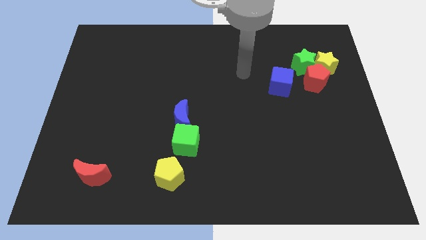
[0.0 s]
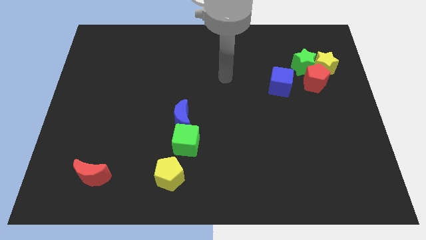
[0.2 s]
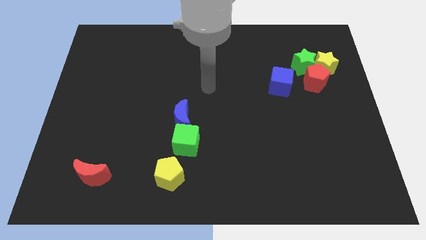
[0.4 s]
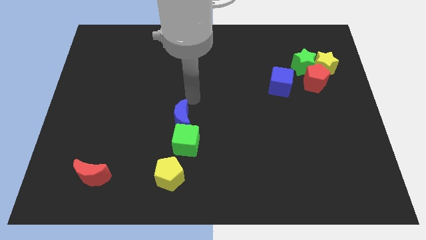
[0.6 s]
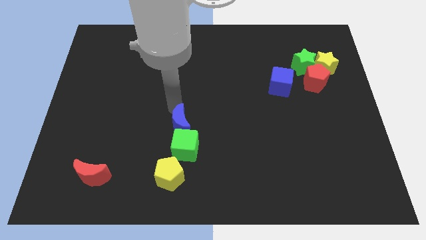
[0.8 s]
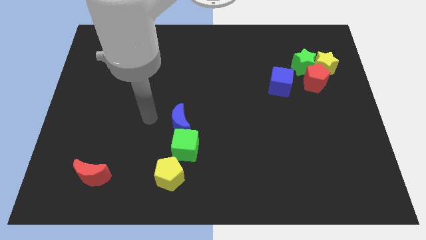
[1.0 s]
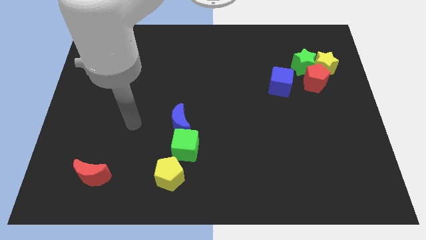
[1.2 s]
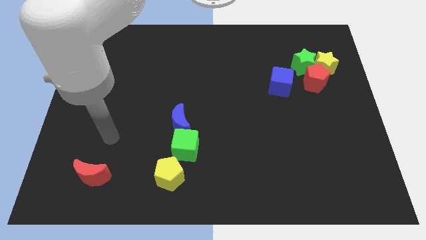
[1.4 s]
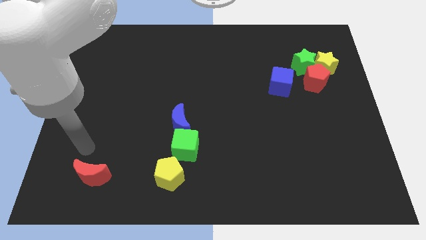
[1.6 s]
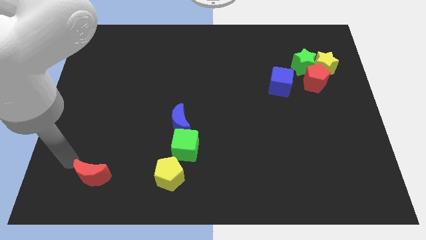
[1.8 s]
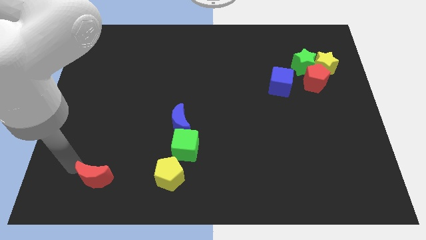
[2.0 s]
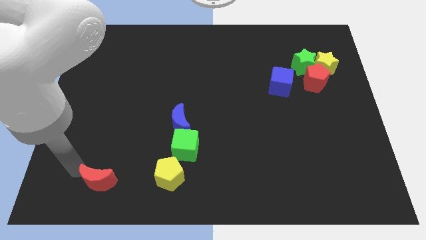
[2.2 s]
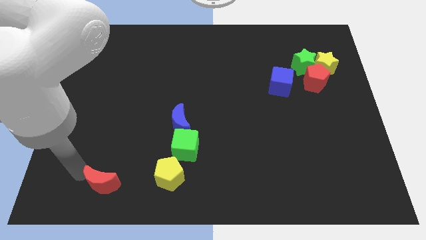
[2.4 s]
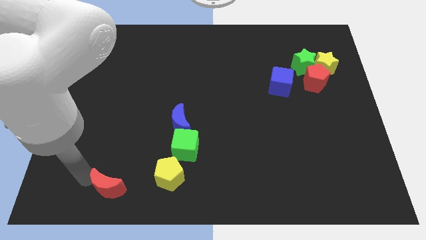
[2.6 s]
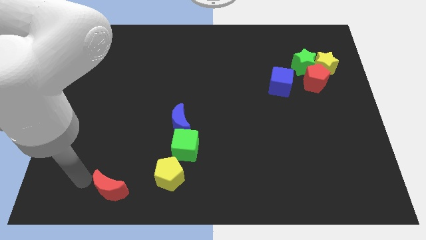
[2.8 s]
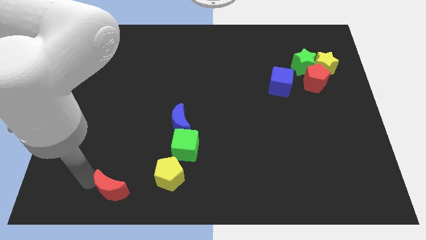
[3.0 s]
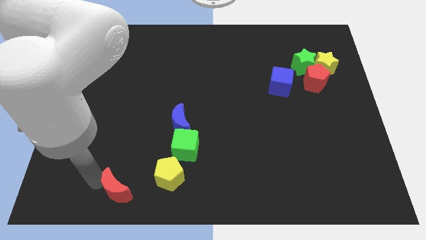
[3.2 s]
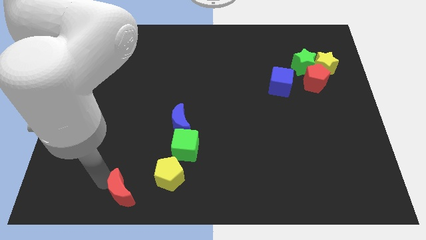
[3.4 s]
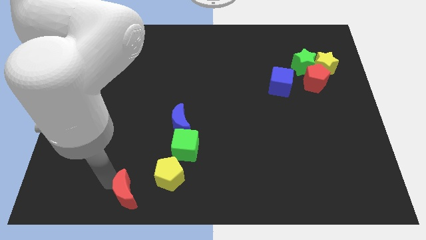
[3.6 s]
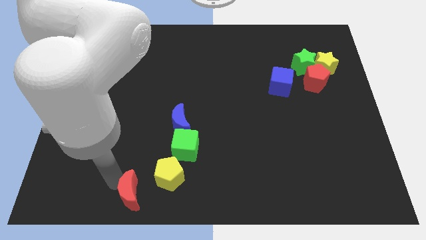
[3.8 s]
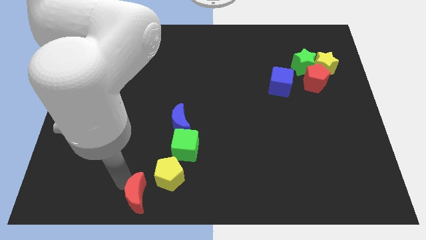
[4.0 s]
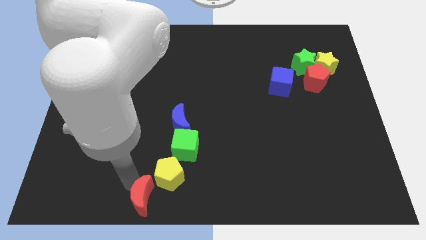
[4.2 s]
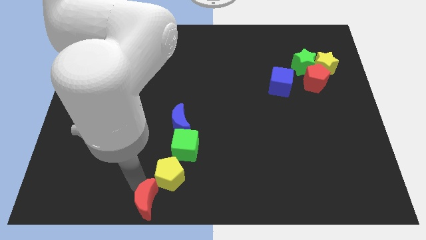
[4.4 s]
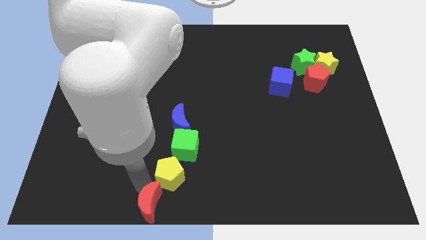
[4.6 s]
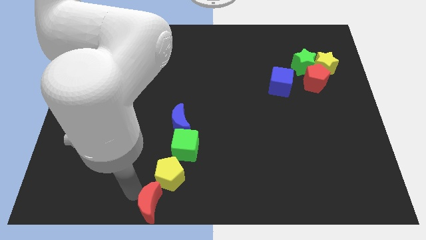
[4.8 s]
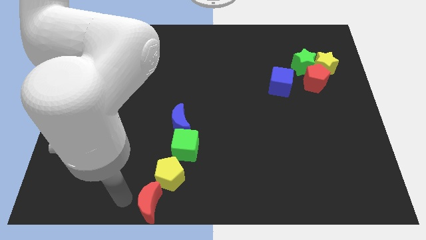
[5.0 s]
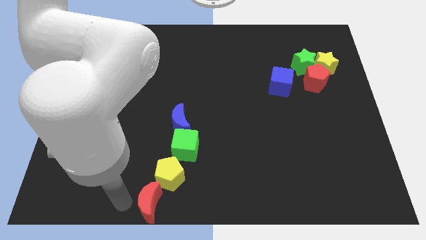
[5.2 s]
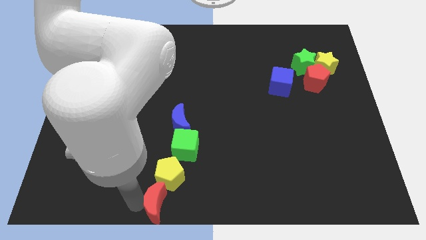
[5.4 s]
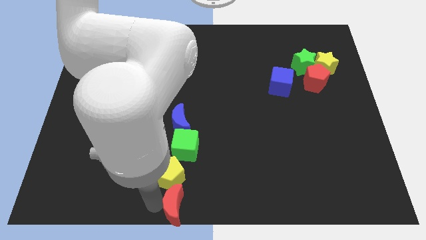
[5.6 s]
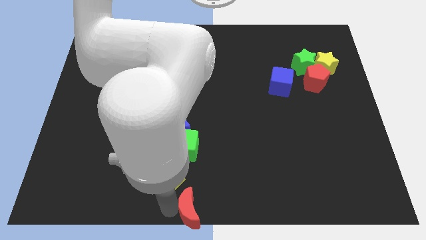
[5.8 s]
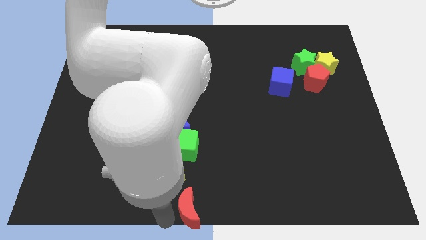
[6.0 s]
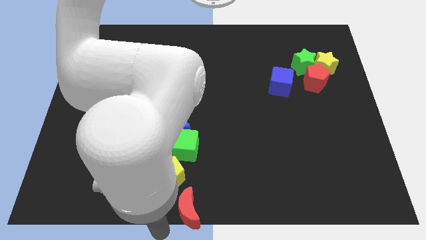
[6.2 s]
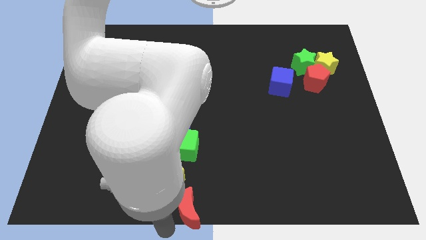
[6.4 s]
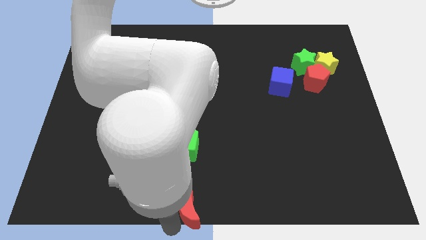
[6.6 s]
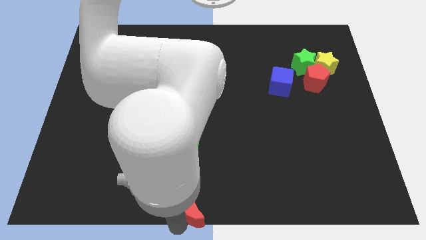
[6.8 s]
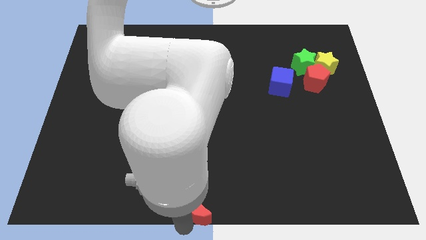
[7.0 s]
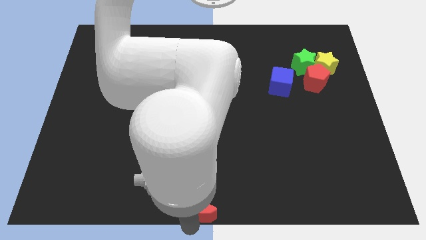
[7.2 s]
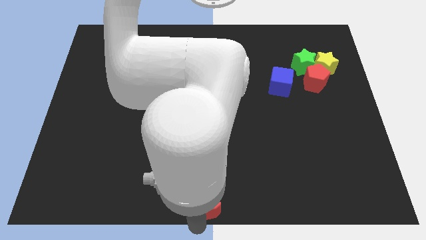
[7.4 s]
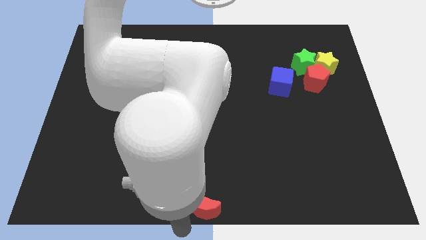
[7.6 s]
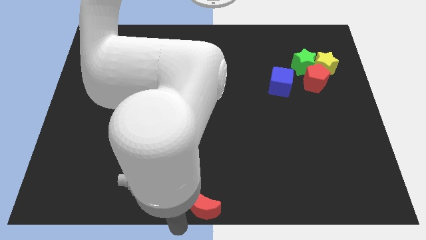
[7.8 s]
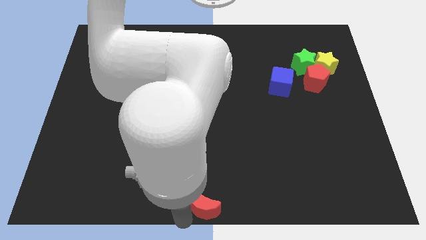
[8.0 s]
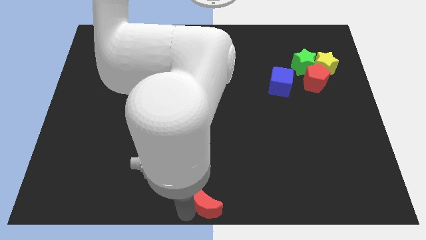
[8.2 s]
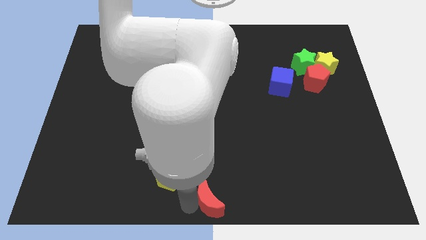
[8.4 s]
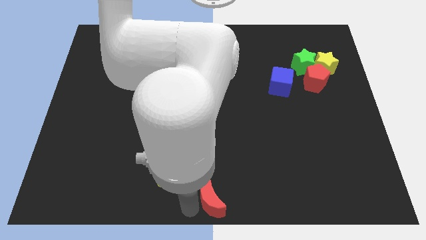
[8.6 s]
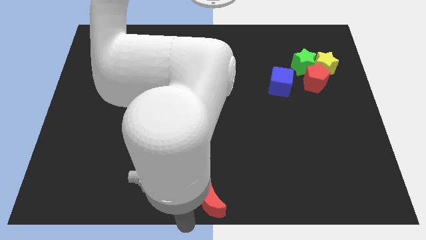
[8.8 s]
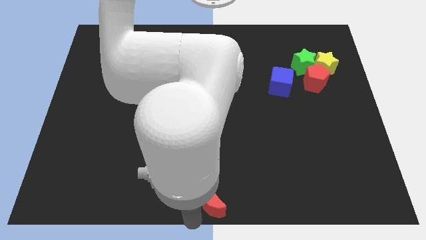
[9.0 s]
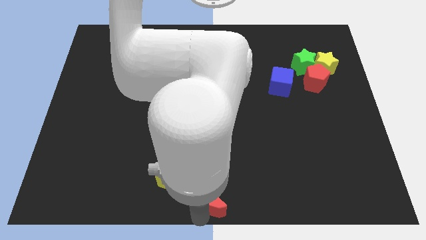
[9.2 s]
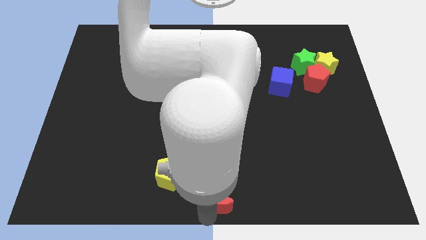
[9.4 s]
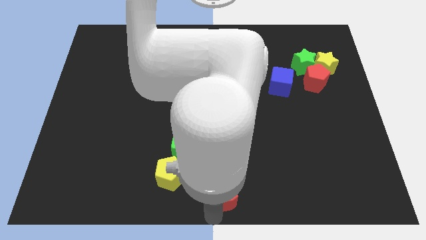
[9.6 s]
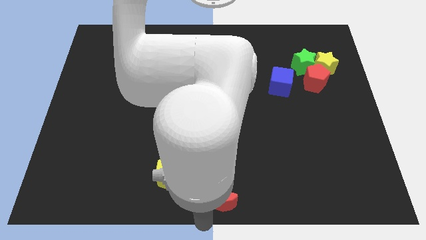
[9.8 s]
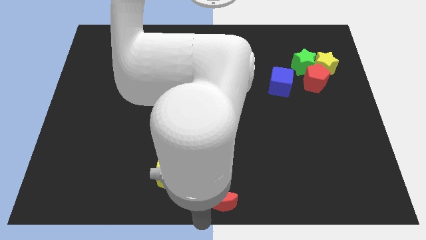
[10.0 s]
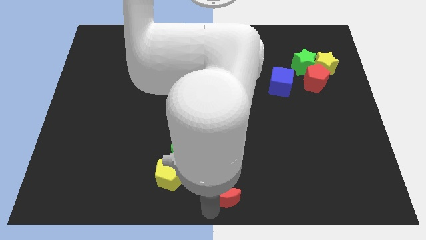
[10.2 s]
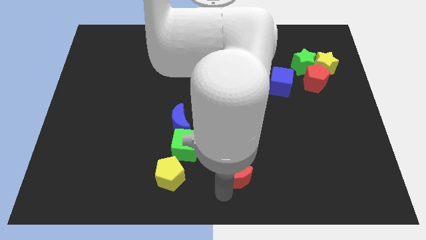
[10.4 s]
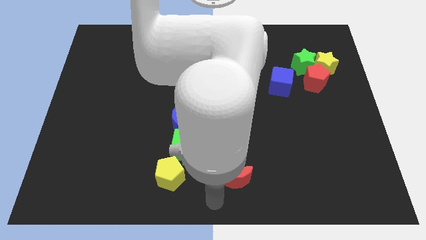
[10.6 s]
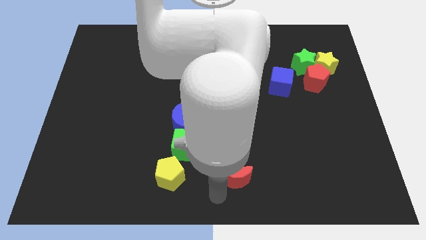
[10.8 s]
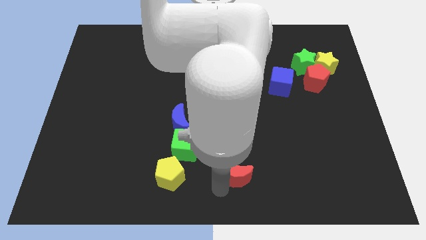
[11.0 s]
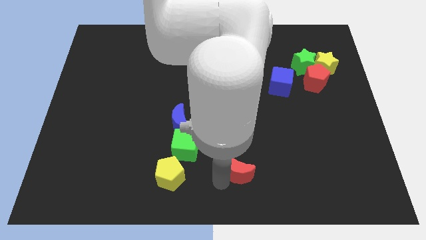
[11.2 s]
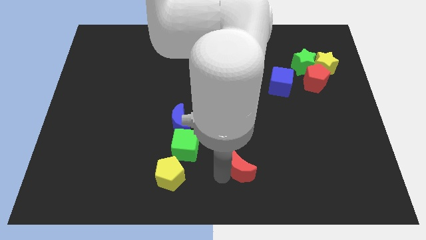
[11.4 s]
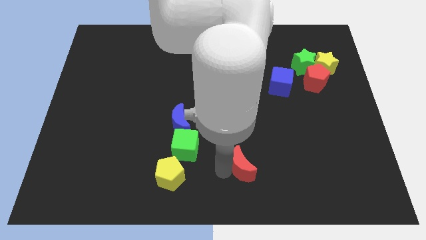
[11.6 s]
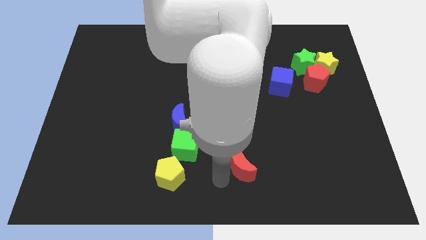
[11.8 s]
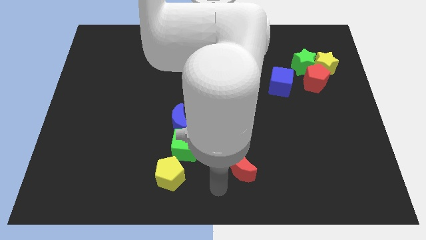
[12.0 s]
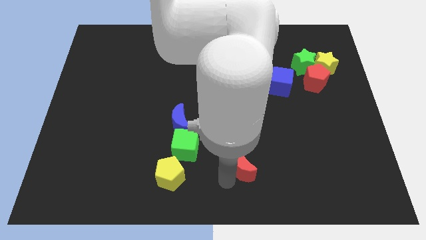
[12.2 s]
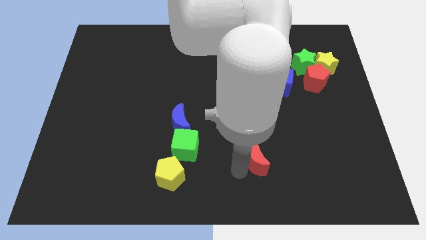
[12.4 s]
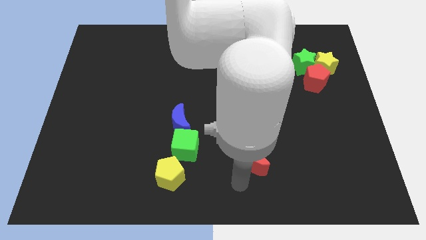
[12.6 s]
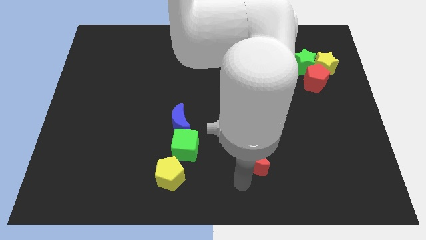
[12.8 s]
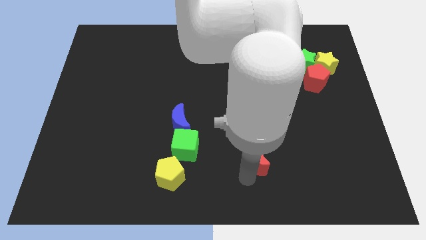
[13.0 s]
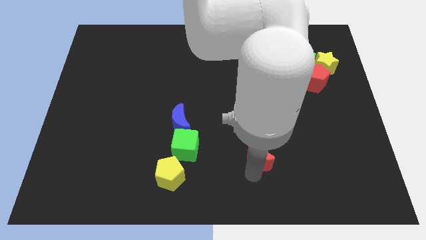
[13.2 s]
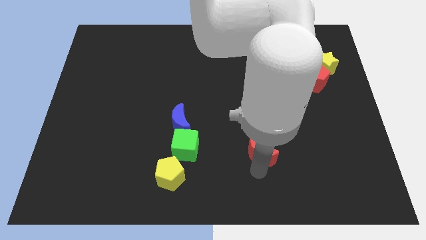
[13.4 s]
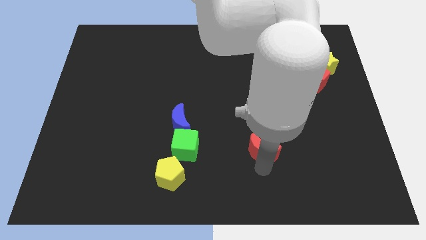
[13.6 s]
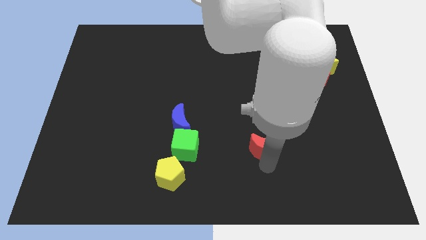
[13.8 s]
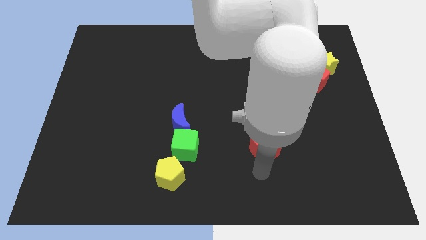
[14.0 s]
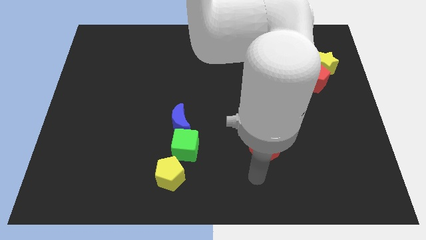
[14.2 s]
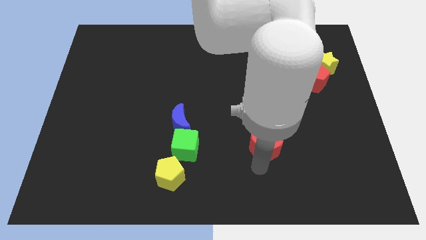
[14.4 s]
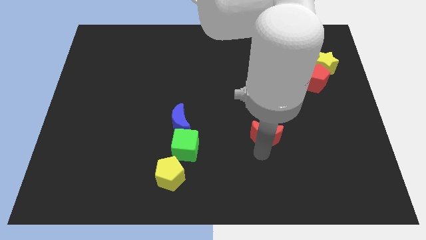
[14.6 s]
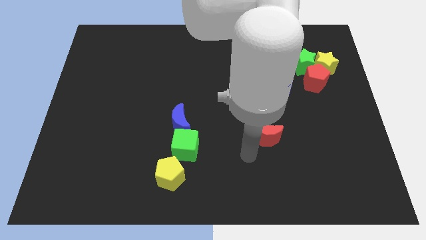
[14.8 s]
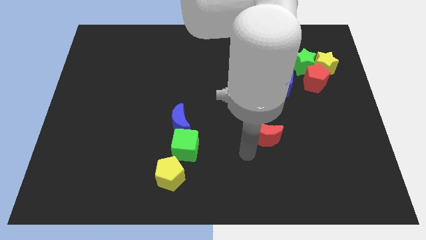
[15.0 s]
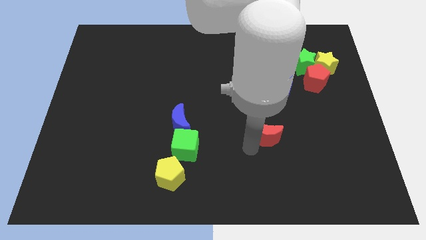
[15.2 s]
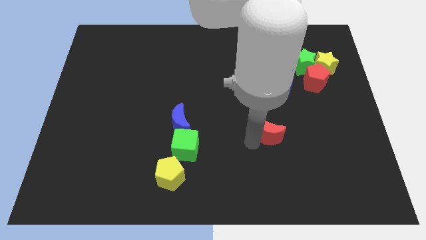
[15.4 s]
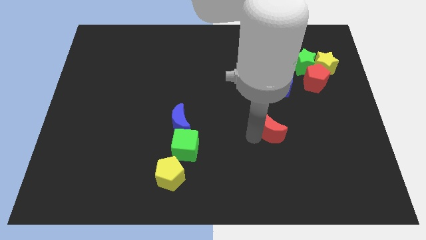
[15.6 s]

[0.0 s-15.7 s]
slide the red moon to the bottom of the blue cube
